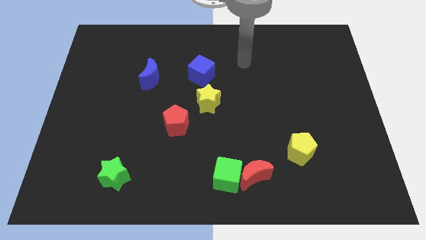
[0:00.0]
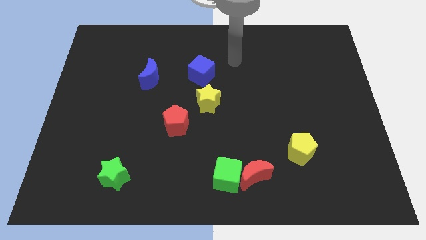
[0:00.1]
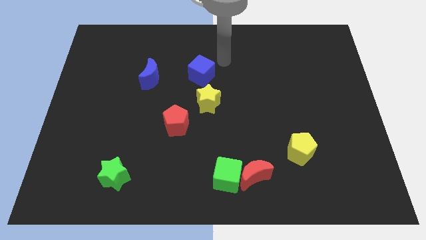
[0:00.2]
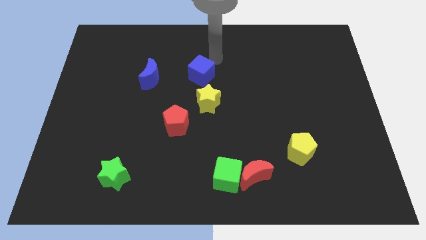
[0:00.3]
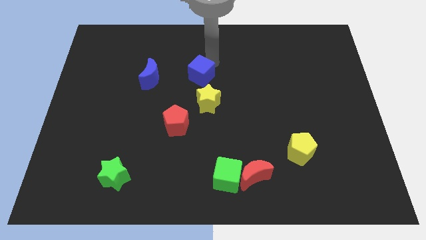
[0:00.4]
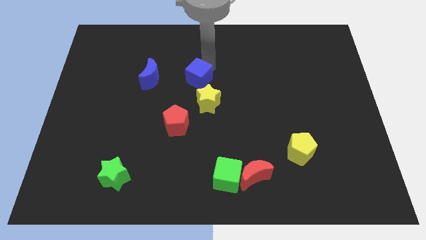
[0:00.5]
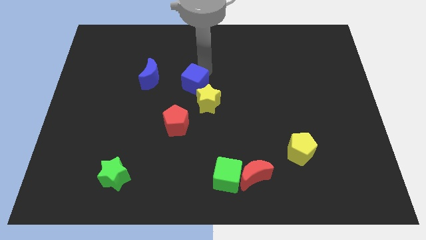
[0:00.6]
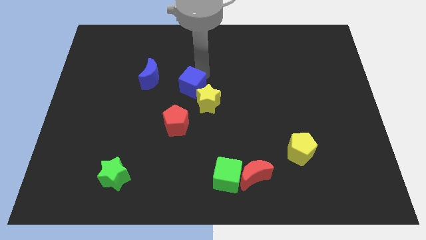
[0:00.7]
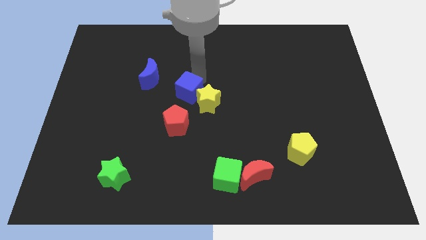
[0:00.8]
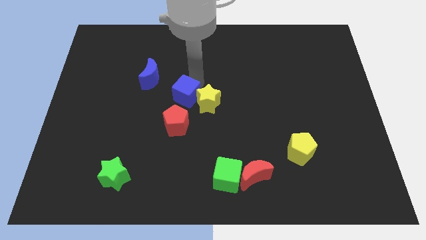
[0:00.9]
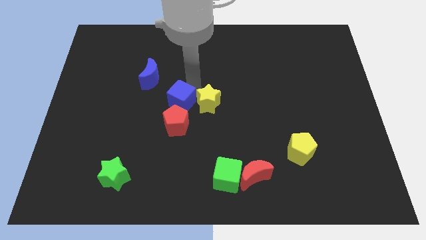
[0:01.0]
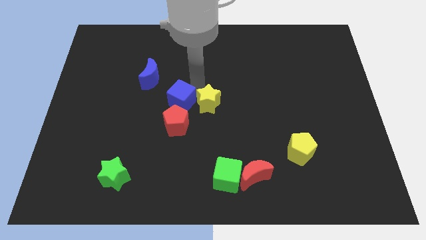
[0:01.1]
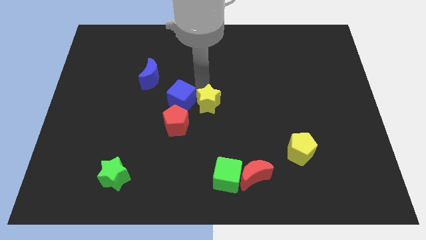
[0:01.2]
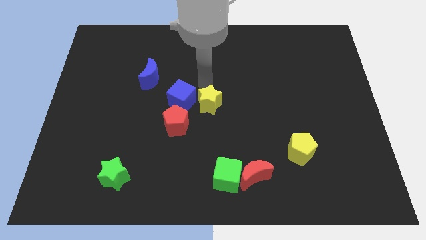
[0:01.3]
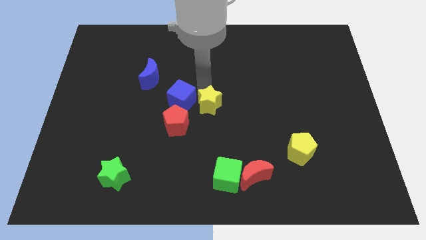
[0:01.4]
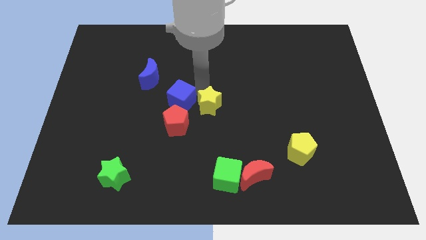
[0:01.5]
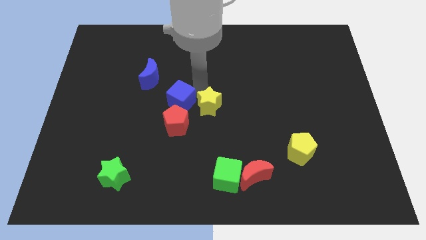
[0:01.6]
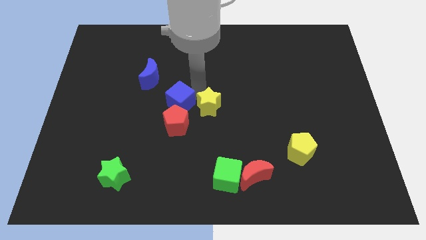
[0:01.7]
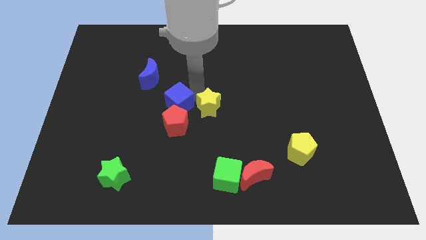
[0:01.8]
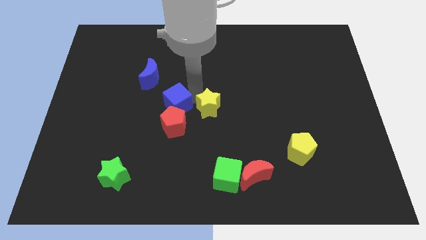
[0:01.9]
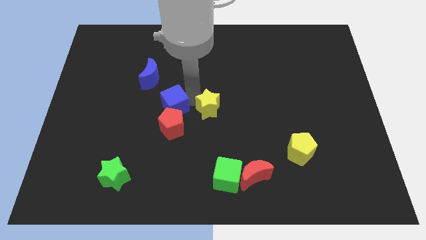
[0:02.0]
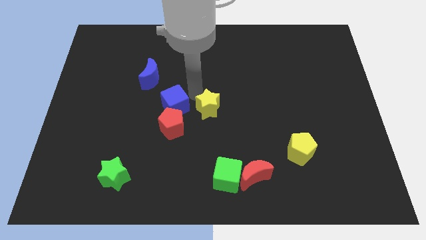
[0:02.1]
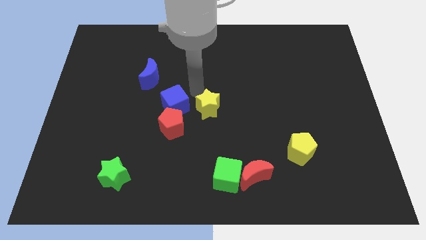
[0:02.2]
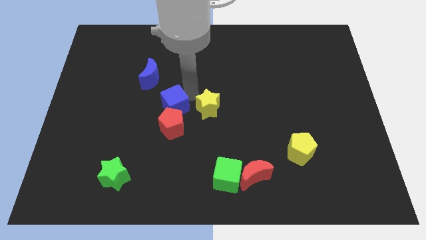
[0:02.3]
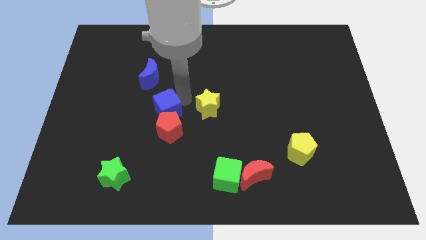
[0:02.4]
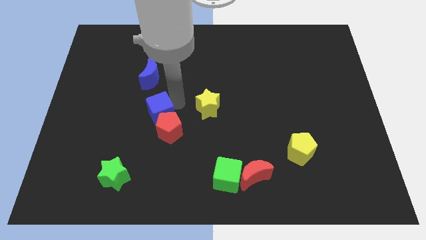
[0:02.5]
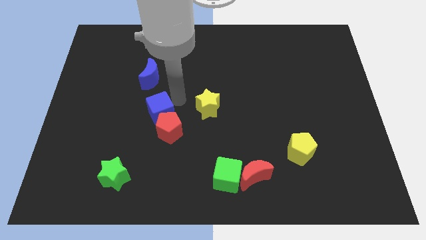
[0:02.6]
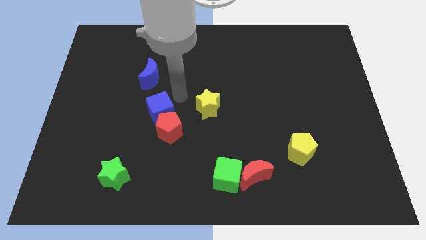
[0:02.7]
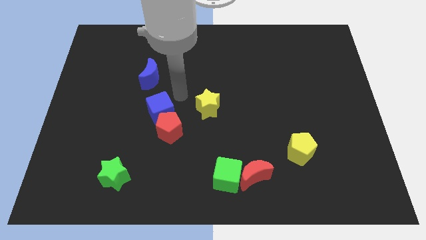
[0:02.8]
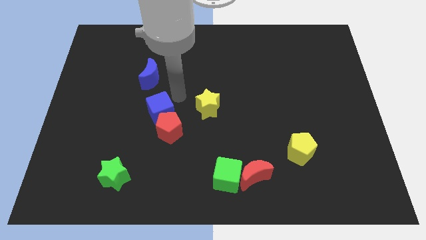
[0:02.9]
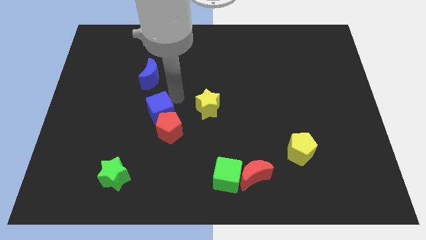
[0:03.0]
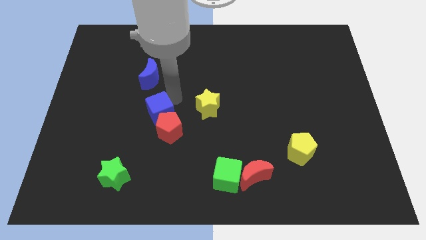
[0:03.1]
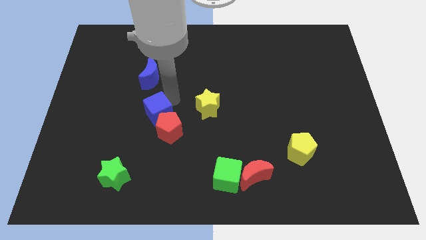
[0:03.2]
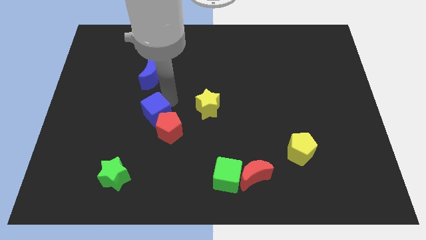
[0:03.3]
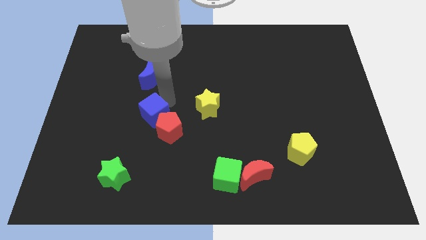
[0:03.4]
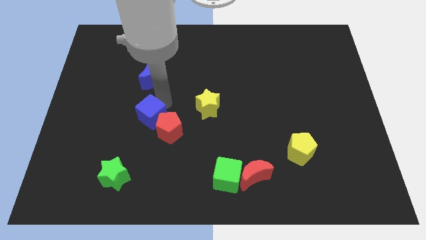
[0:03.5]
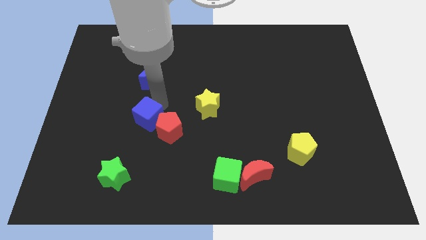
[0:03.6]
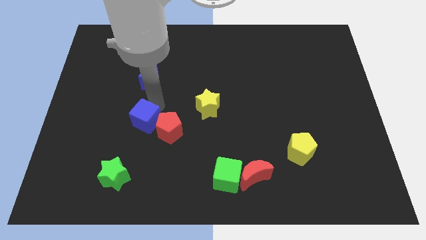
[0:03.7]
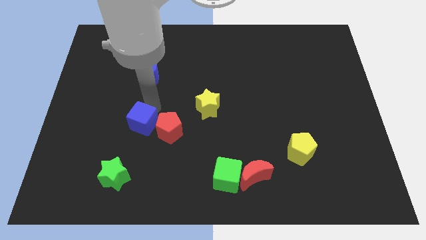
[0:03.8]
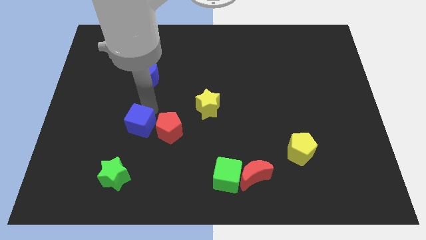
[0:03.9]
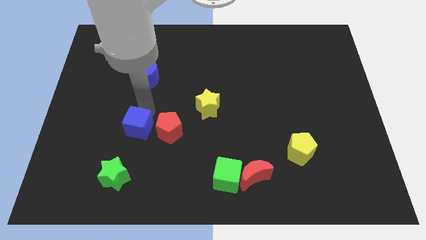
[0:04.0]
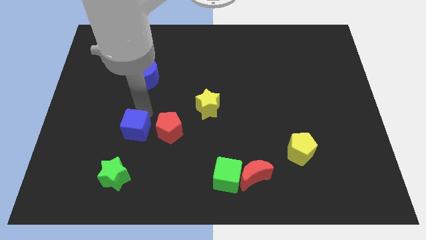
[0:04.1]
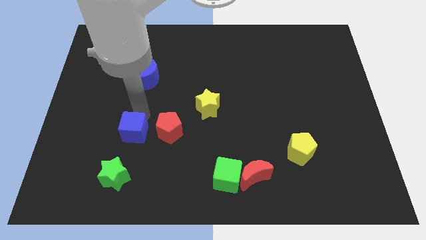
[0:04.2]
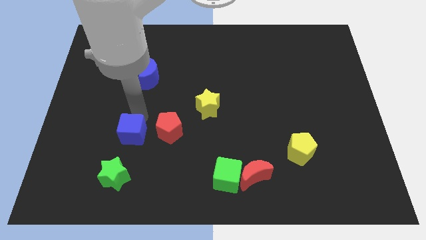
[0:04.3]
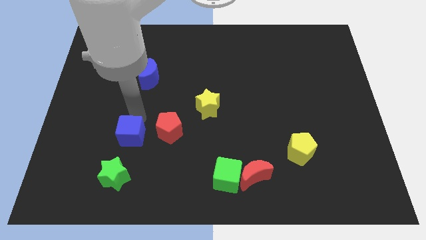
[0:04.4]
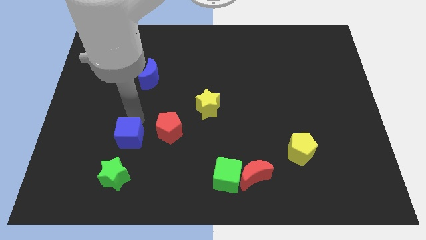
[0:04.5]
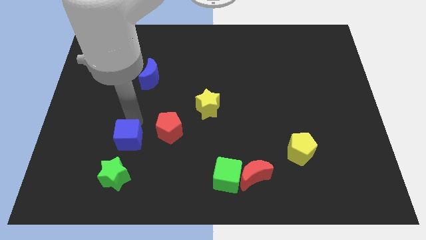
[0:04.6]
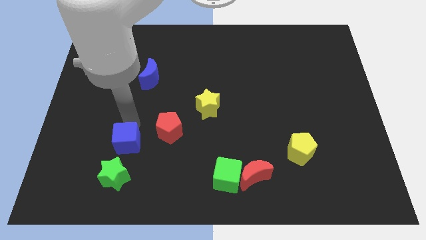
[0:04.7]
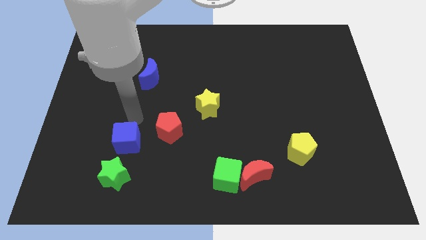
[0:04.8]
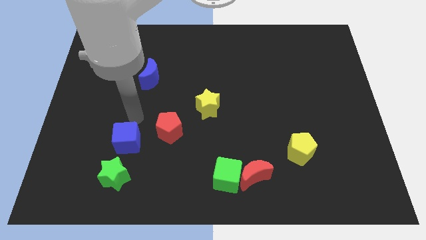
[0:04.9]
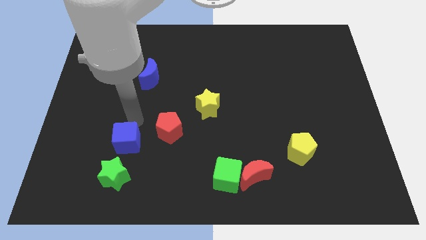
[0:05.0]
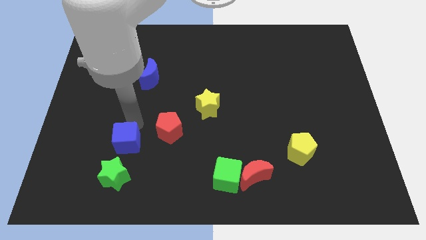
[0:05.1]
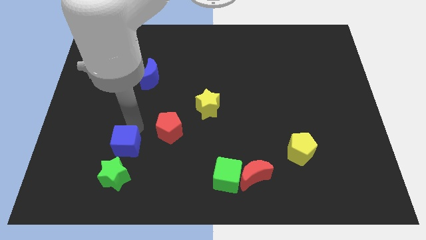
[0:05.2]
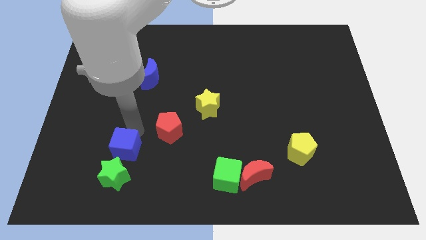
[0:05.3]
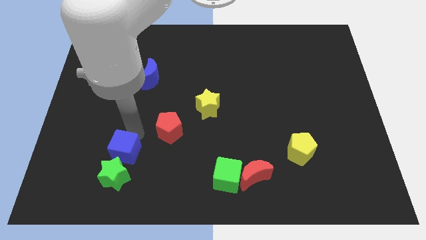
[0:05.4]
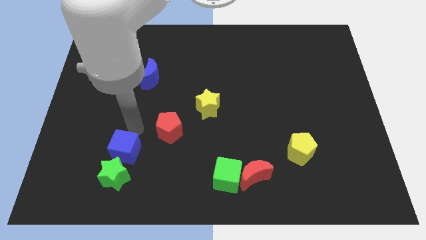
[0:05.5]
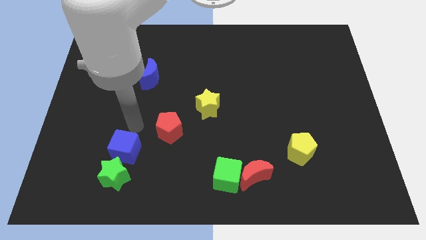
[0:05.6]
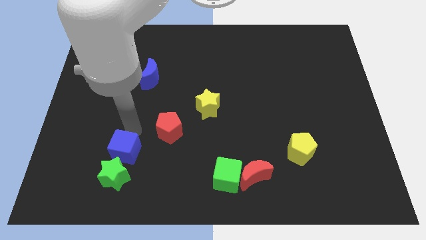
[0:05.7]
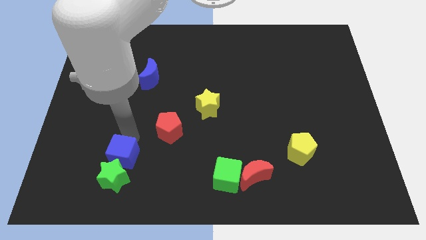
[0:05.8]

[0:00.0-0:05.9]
slide the blue cube to the green star

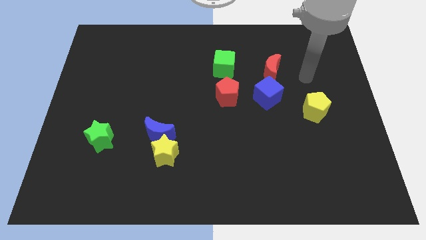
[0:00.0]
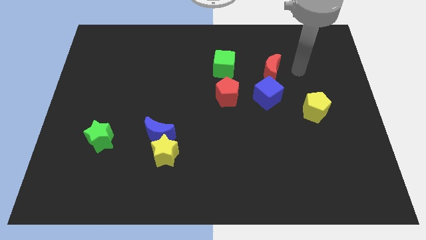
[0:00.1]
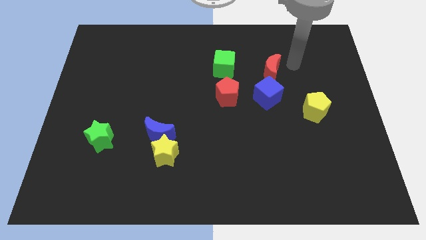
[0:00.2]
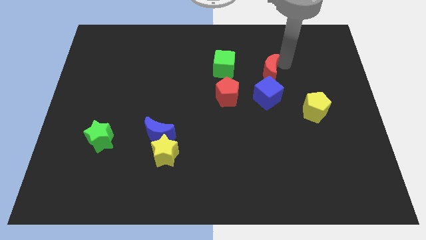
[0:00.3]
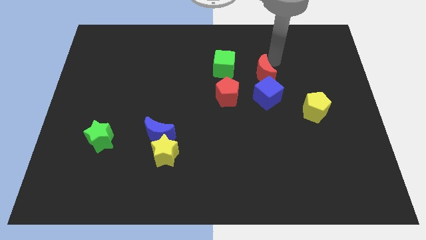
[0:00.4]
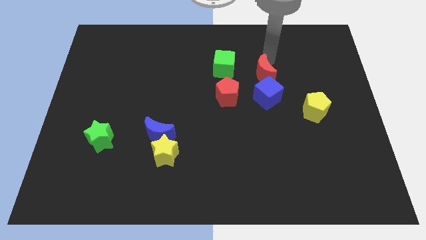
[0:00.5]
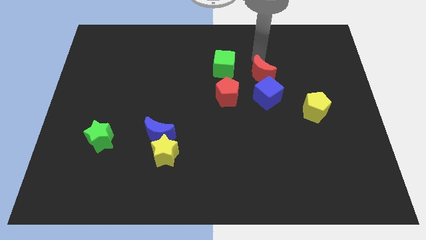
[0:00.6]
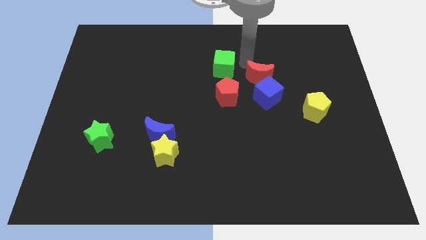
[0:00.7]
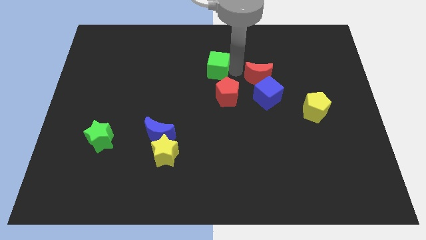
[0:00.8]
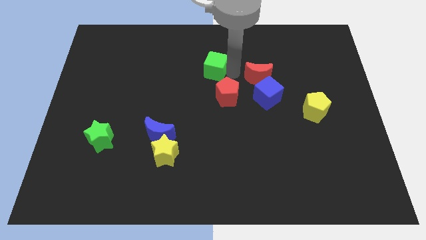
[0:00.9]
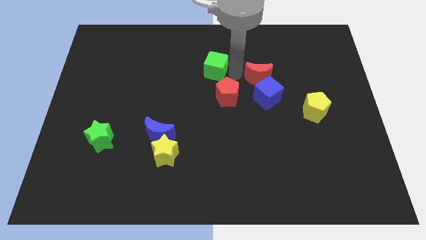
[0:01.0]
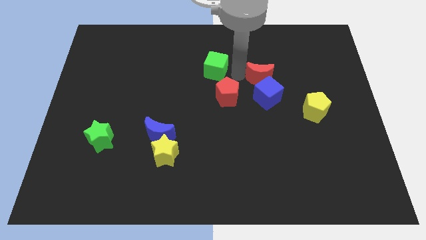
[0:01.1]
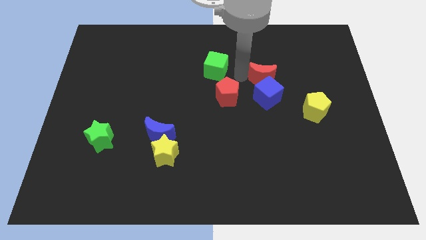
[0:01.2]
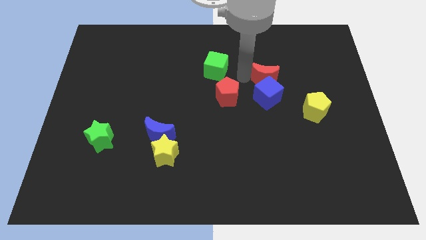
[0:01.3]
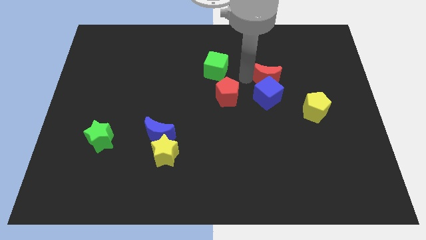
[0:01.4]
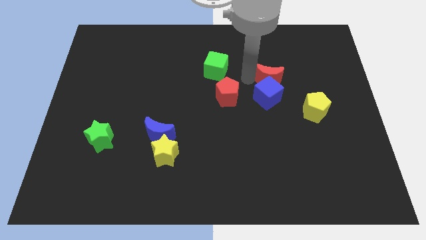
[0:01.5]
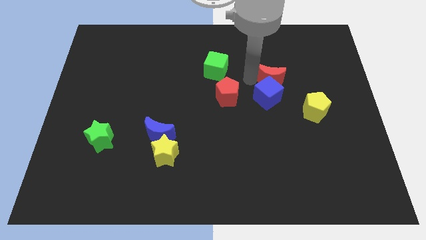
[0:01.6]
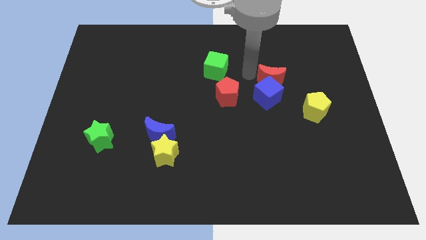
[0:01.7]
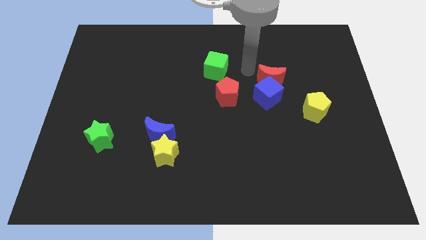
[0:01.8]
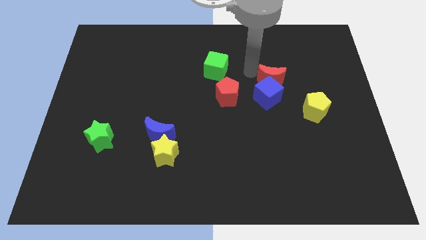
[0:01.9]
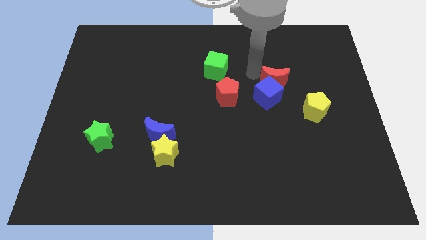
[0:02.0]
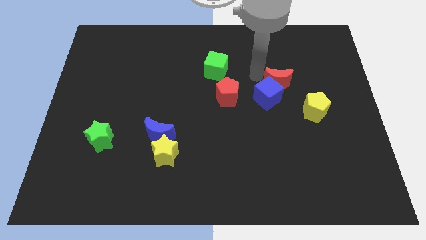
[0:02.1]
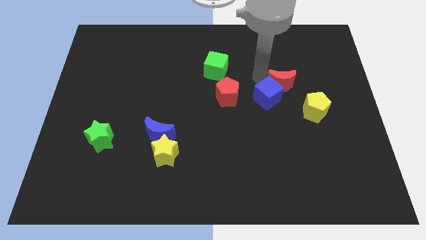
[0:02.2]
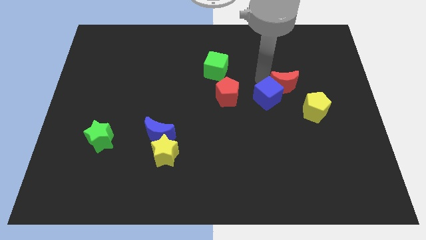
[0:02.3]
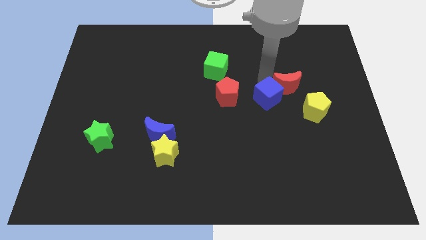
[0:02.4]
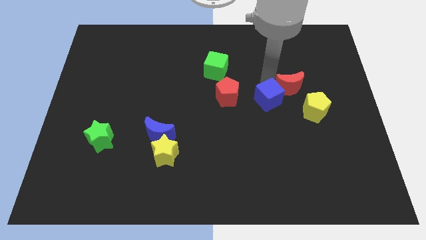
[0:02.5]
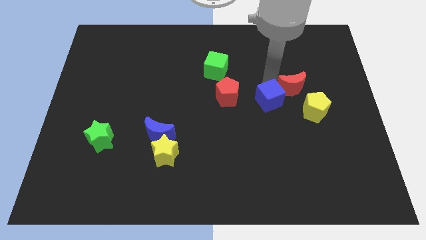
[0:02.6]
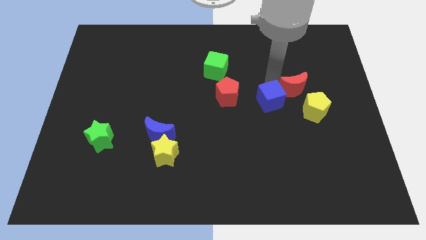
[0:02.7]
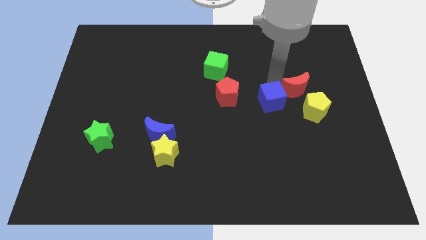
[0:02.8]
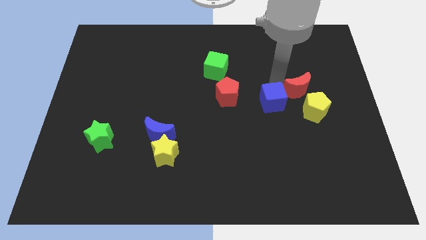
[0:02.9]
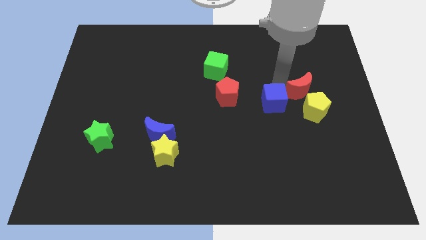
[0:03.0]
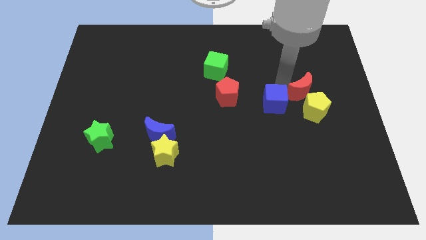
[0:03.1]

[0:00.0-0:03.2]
slide the red moon next to the yellow pentagon
